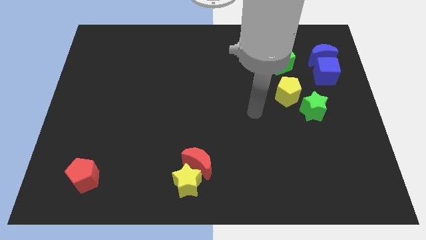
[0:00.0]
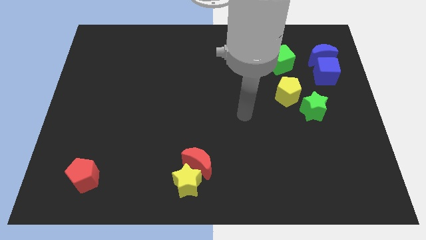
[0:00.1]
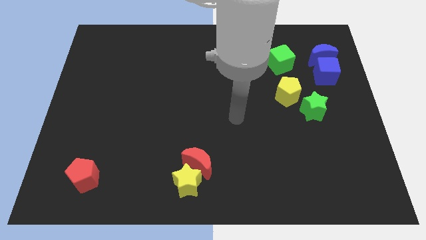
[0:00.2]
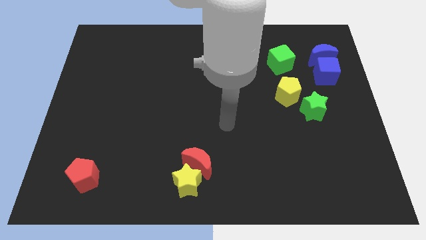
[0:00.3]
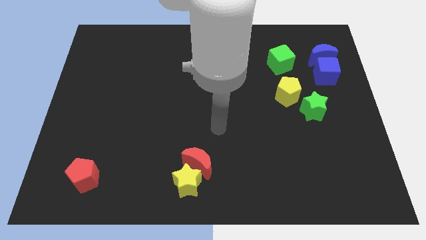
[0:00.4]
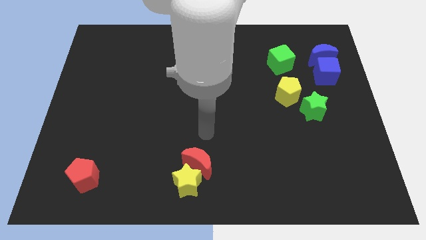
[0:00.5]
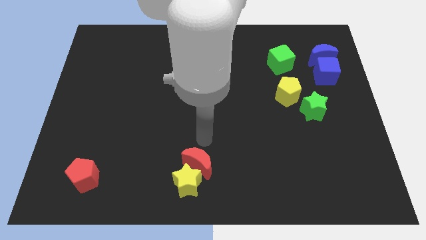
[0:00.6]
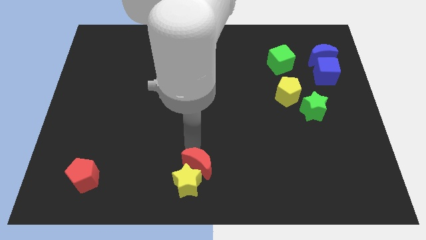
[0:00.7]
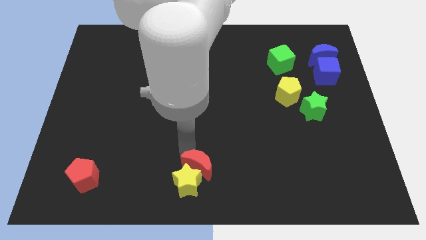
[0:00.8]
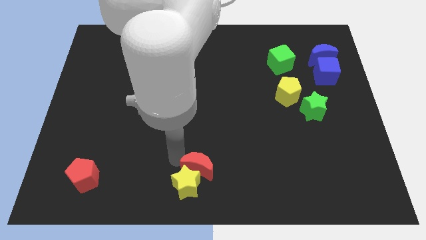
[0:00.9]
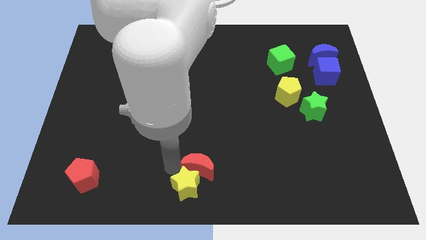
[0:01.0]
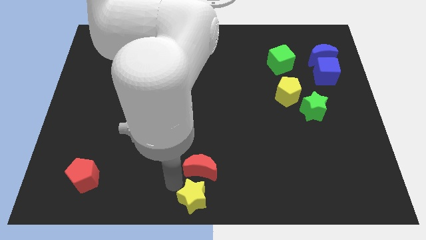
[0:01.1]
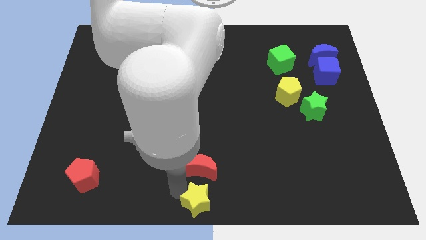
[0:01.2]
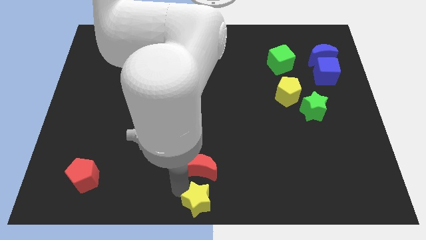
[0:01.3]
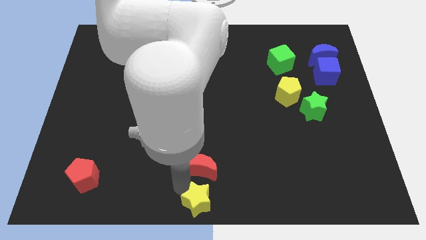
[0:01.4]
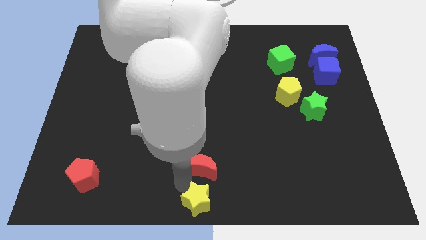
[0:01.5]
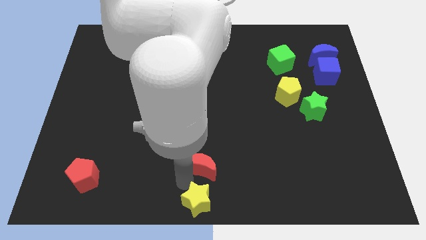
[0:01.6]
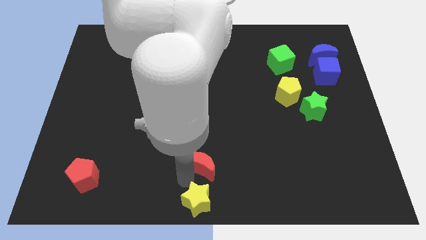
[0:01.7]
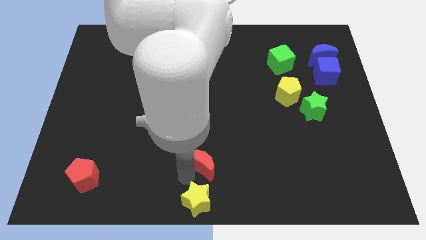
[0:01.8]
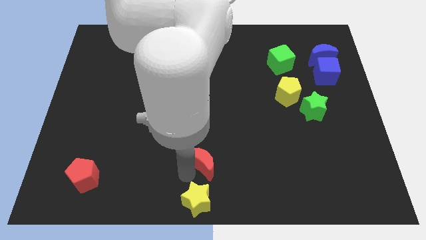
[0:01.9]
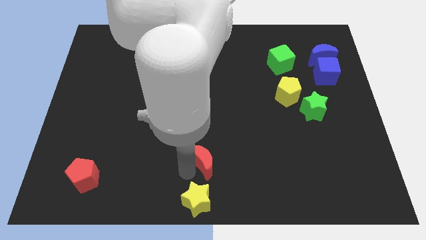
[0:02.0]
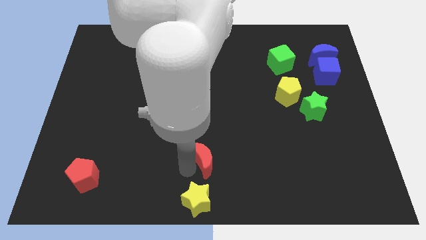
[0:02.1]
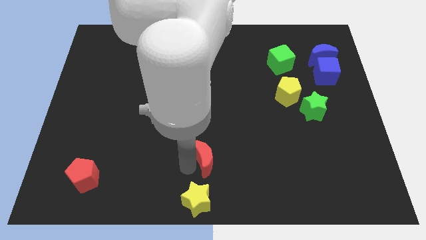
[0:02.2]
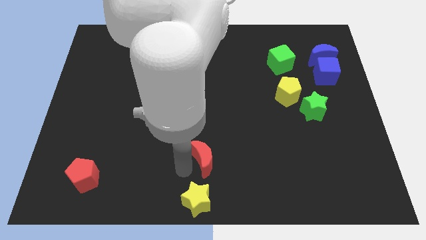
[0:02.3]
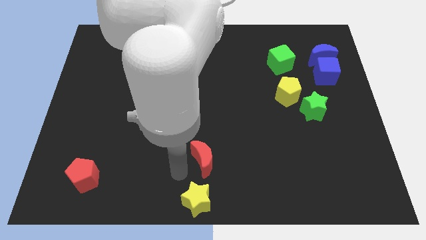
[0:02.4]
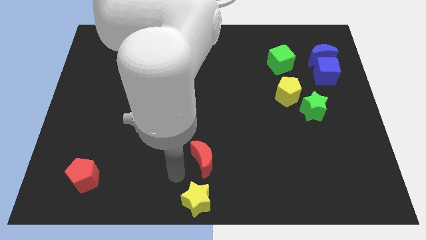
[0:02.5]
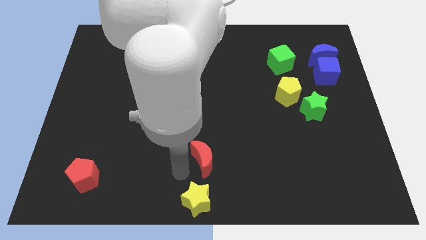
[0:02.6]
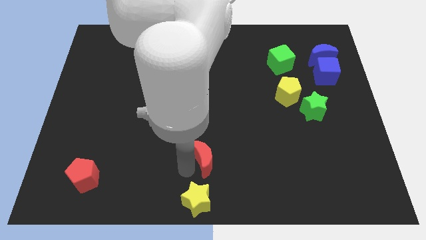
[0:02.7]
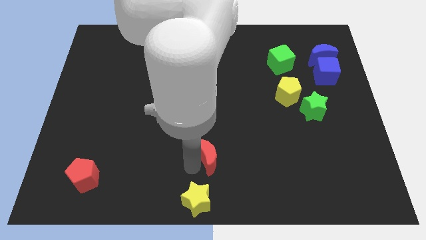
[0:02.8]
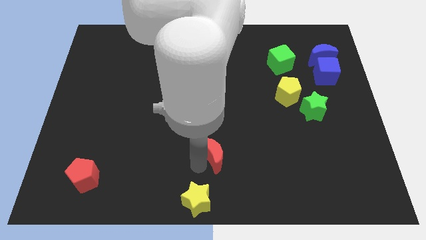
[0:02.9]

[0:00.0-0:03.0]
separate the red moon from the yellow star

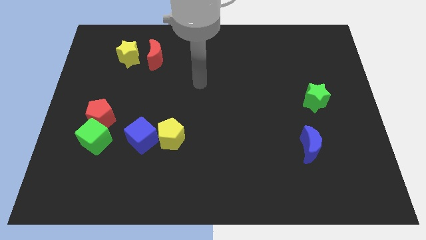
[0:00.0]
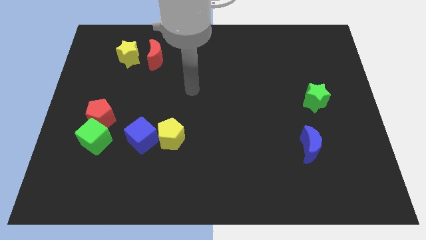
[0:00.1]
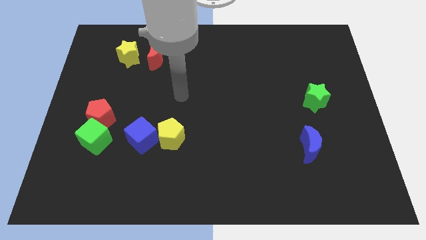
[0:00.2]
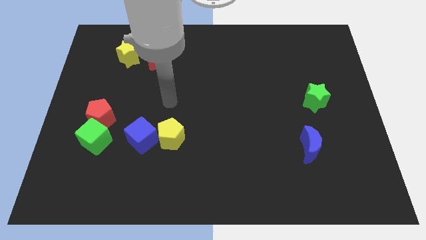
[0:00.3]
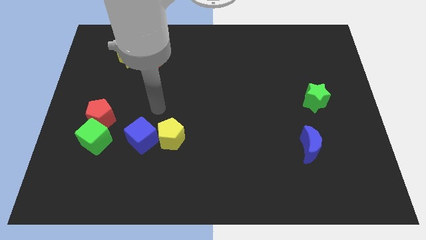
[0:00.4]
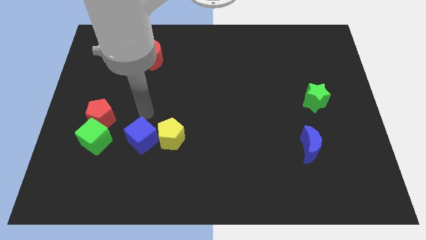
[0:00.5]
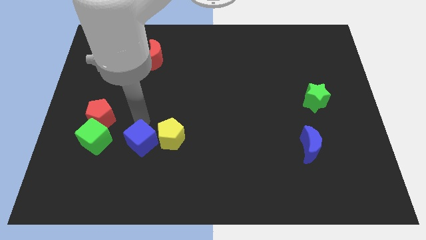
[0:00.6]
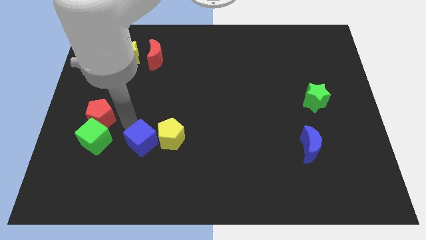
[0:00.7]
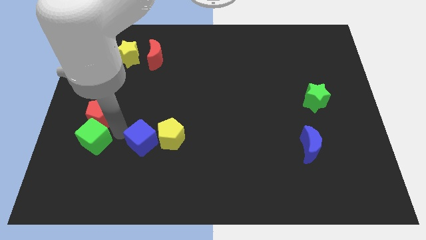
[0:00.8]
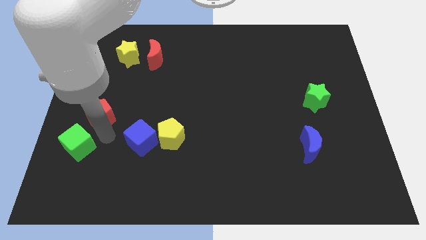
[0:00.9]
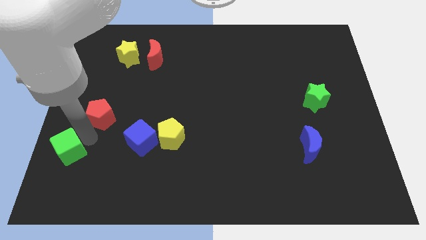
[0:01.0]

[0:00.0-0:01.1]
pull the red pentagon apart from the green cube

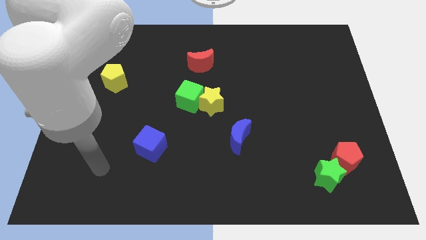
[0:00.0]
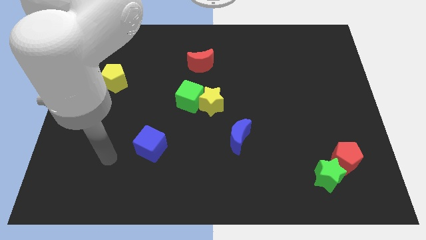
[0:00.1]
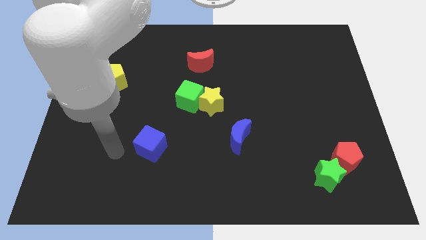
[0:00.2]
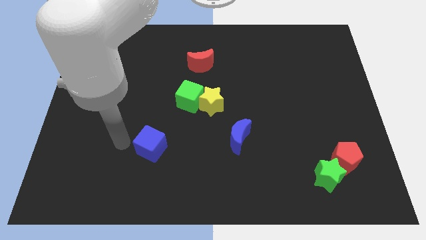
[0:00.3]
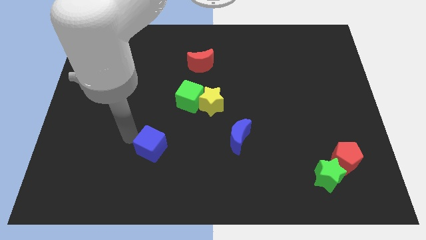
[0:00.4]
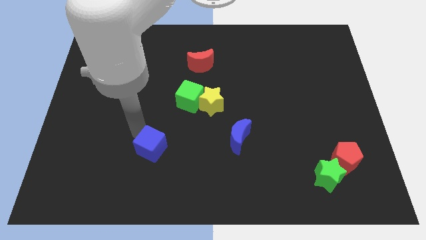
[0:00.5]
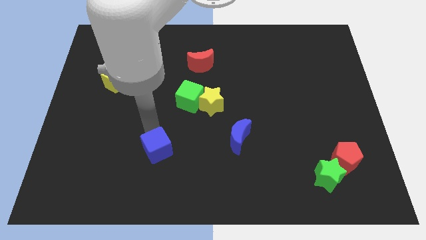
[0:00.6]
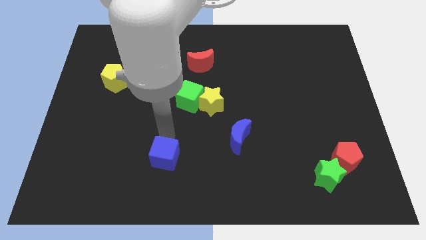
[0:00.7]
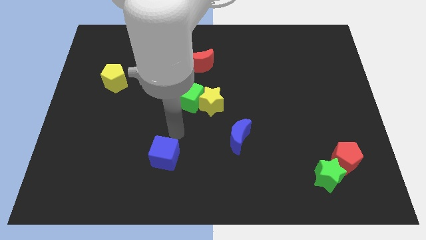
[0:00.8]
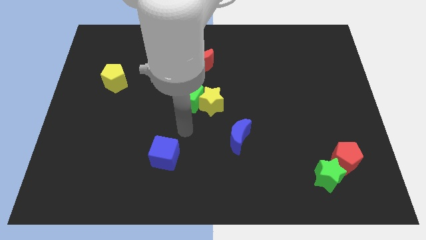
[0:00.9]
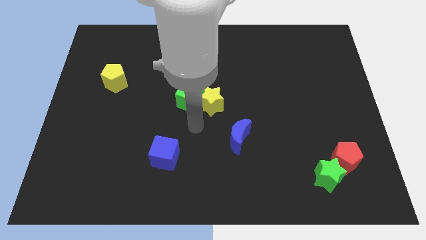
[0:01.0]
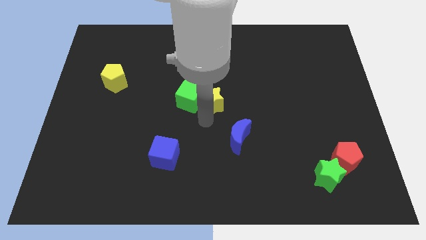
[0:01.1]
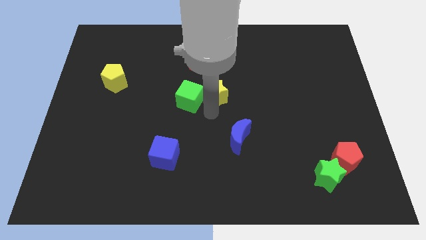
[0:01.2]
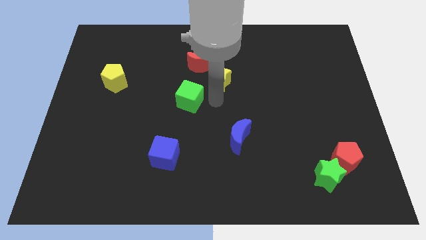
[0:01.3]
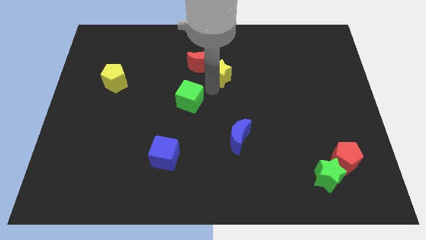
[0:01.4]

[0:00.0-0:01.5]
pull the green cube apart from the yellow star

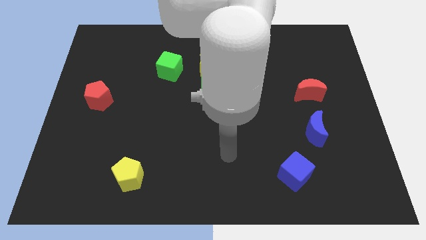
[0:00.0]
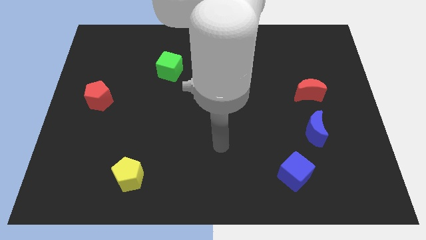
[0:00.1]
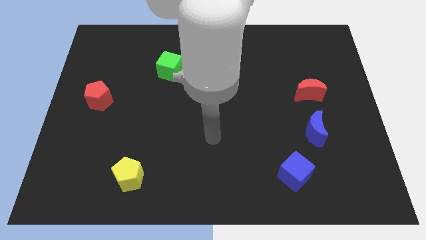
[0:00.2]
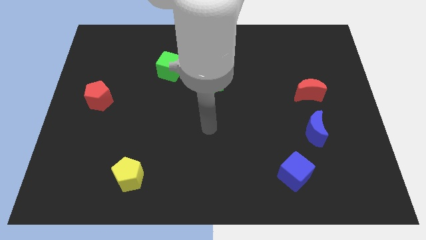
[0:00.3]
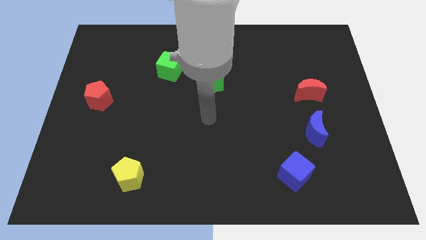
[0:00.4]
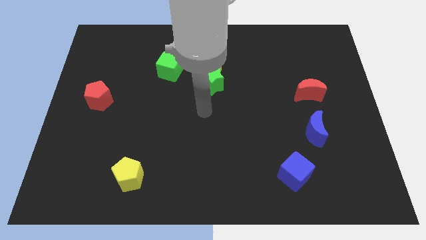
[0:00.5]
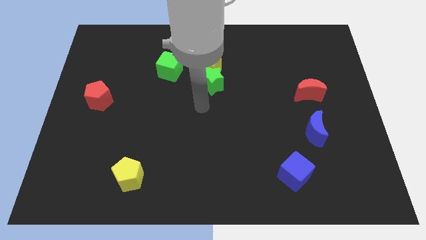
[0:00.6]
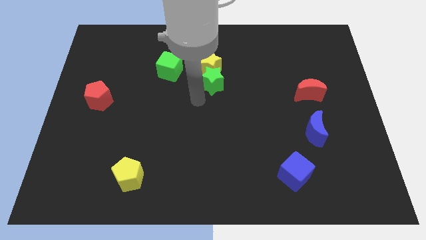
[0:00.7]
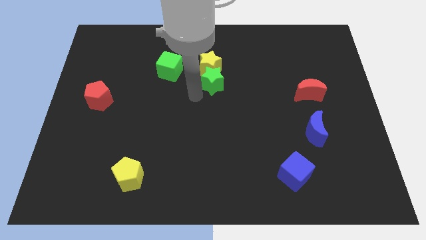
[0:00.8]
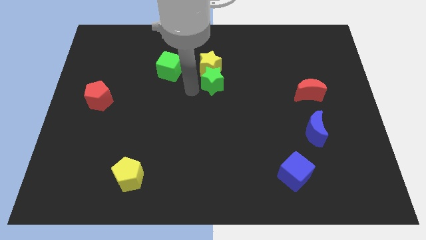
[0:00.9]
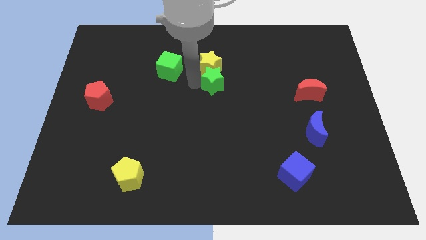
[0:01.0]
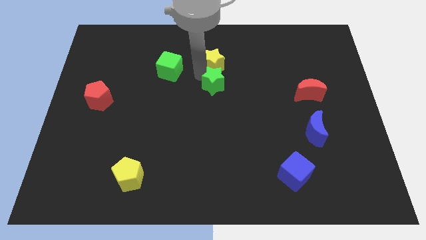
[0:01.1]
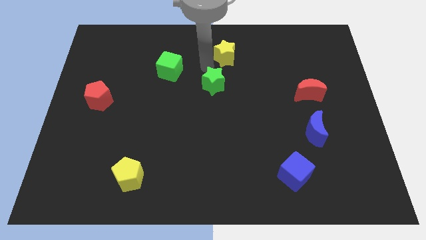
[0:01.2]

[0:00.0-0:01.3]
move the green star away from the yellow star

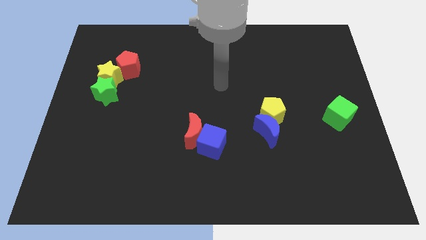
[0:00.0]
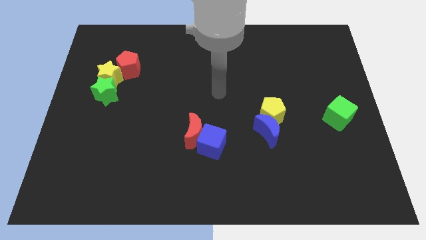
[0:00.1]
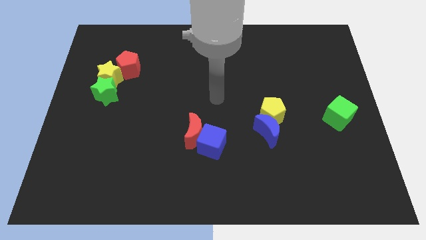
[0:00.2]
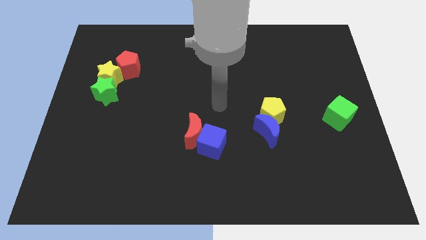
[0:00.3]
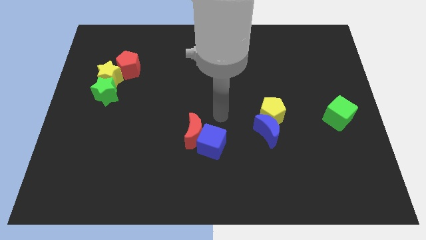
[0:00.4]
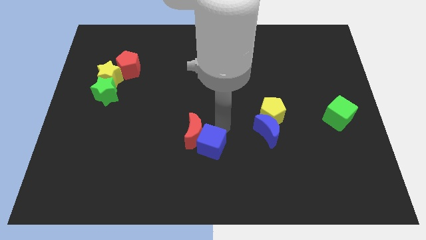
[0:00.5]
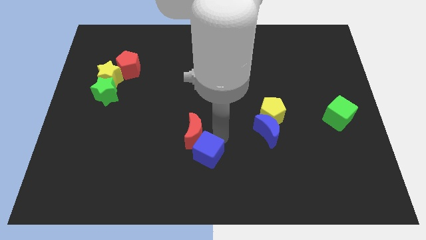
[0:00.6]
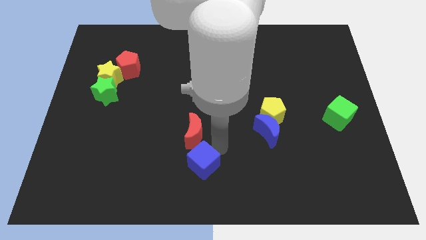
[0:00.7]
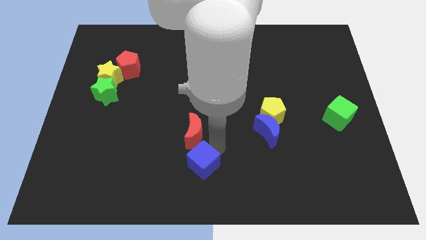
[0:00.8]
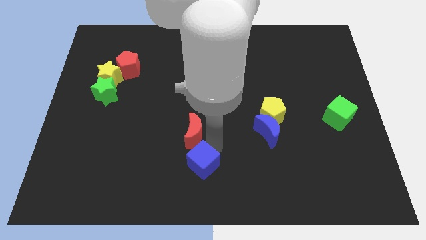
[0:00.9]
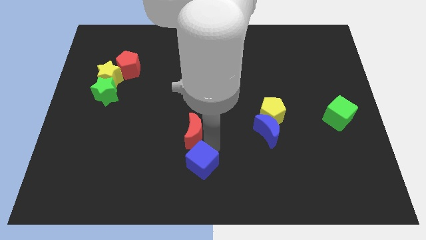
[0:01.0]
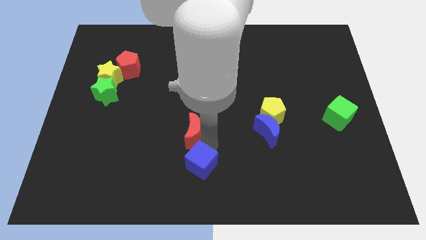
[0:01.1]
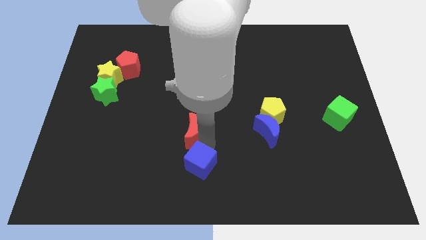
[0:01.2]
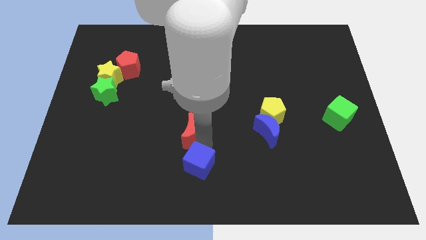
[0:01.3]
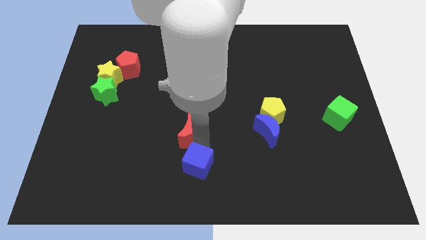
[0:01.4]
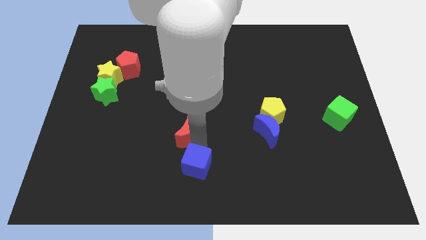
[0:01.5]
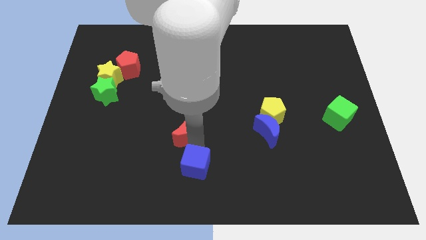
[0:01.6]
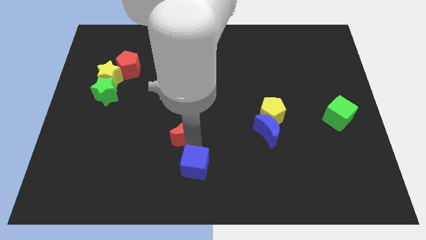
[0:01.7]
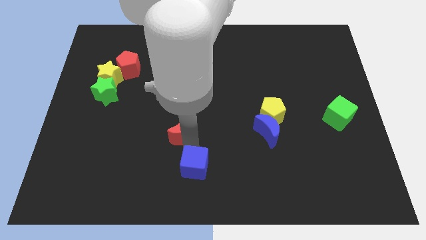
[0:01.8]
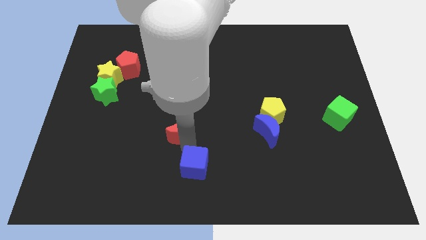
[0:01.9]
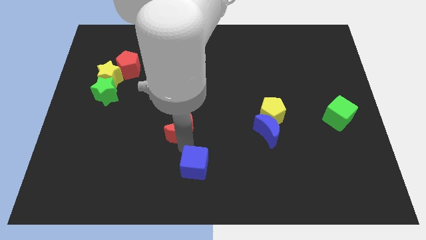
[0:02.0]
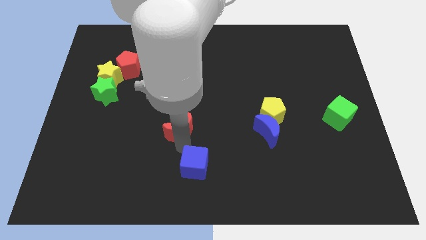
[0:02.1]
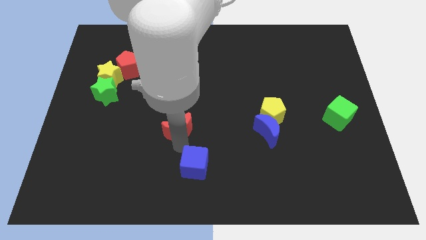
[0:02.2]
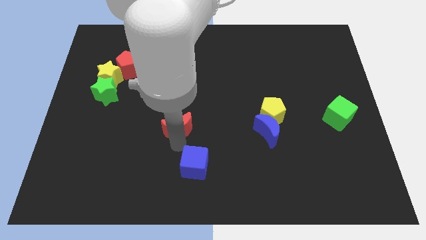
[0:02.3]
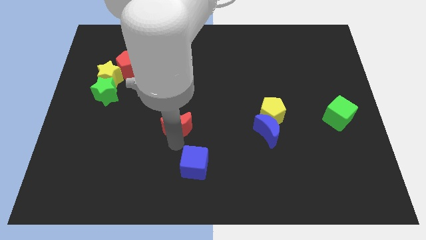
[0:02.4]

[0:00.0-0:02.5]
separate the red moon from the blue cube
